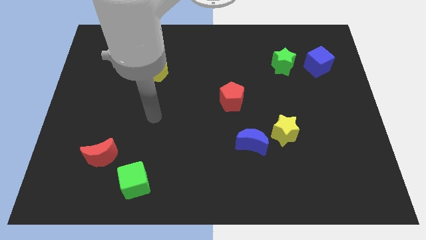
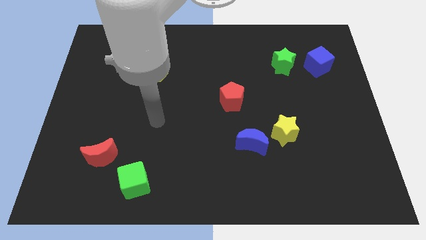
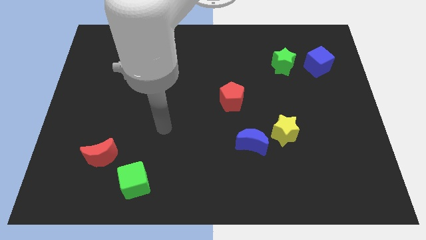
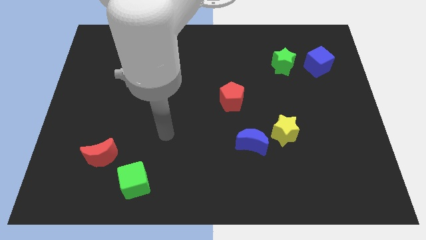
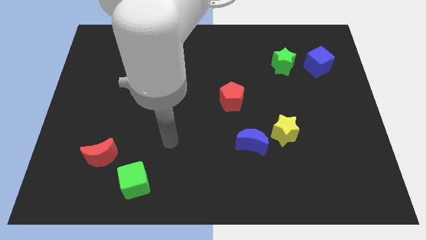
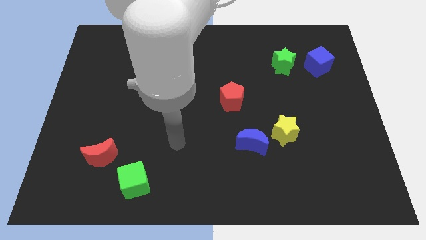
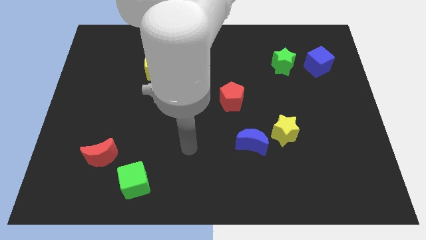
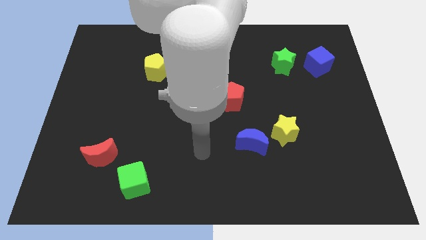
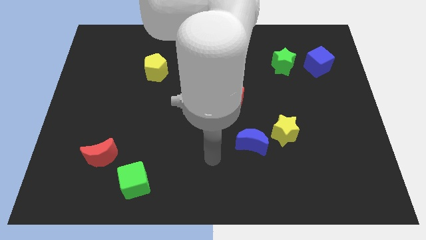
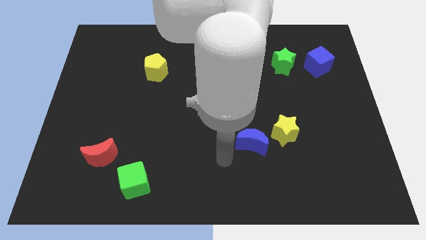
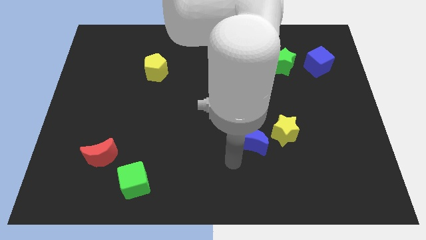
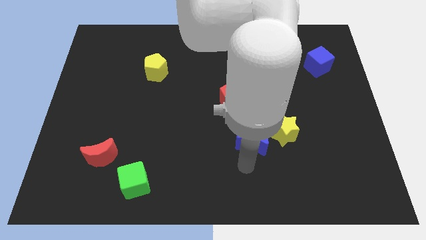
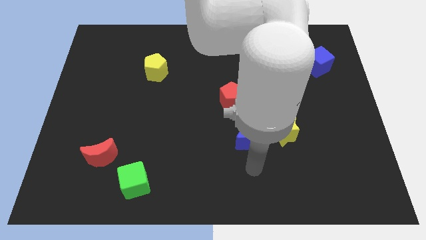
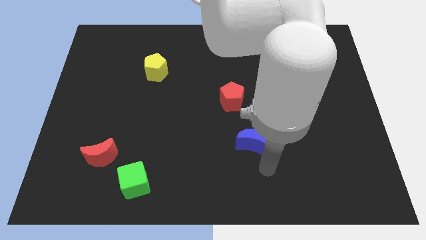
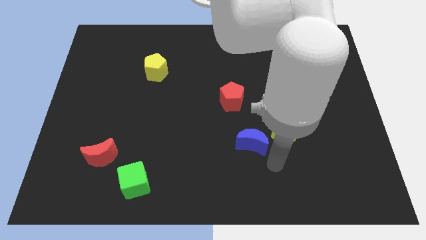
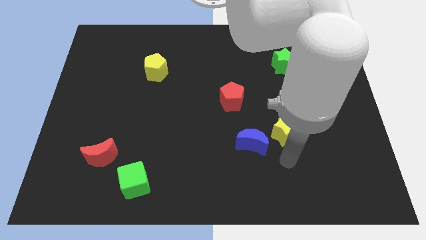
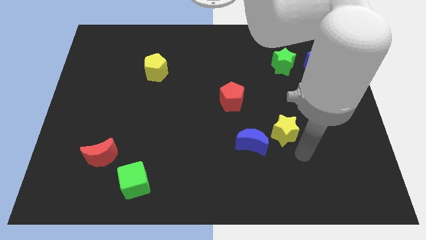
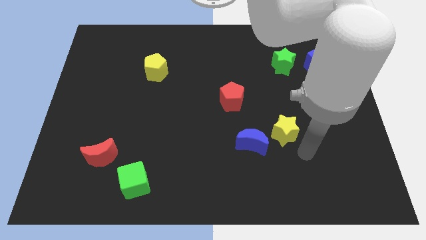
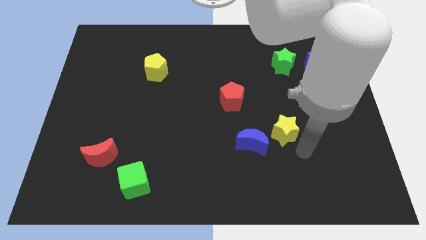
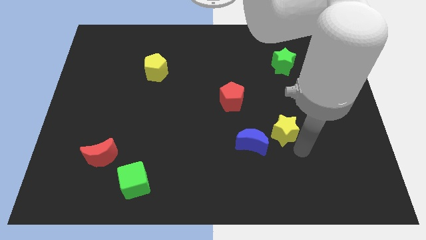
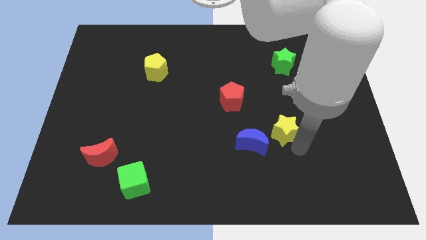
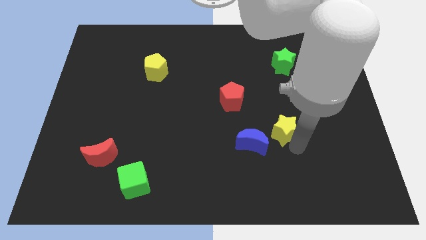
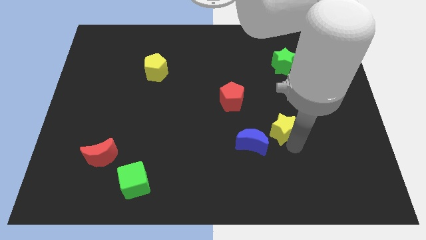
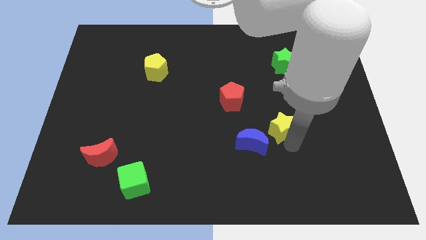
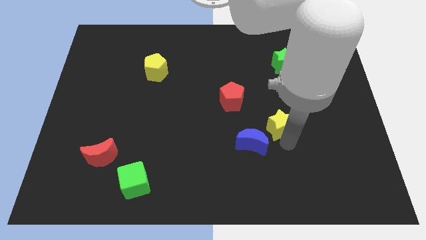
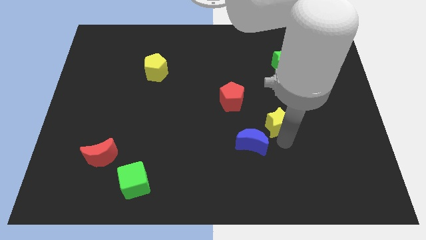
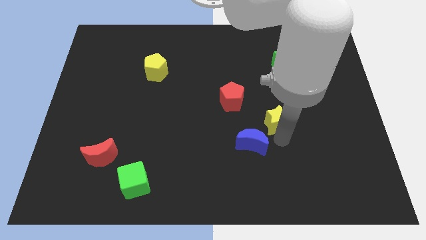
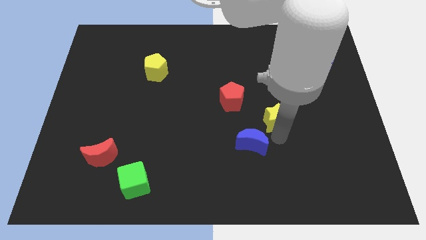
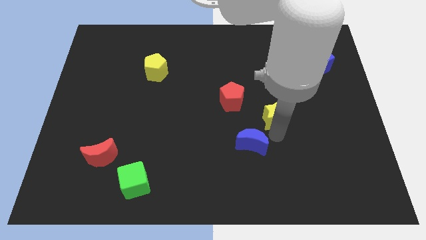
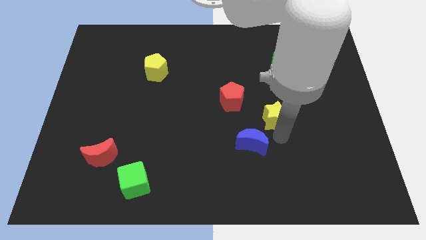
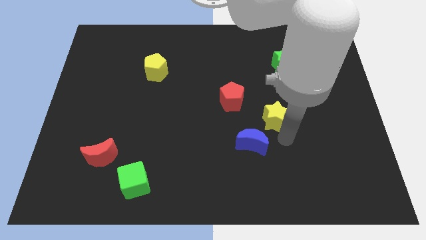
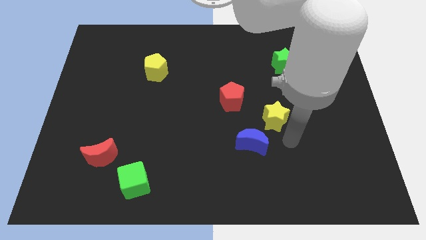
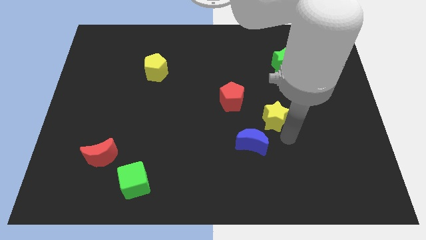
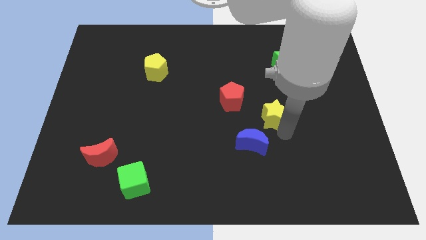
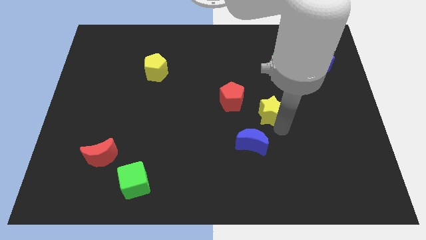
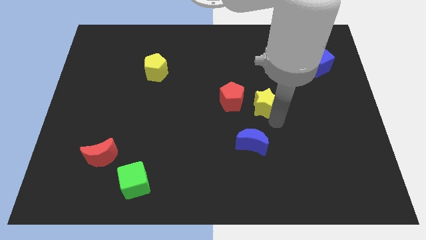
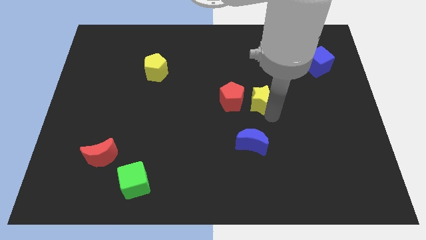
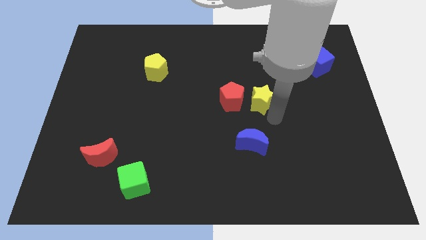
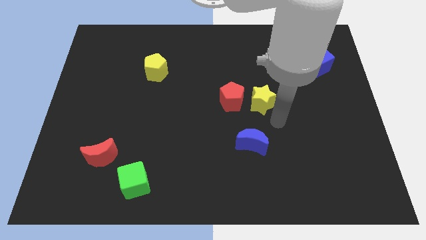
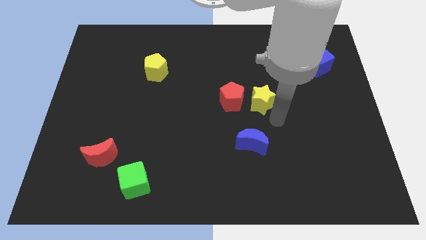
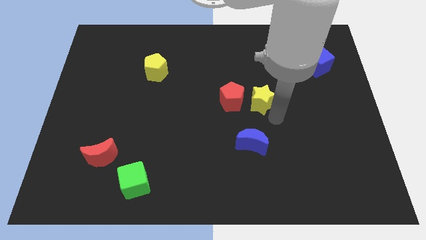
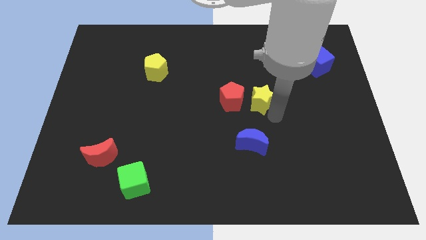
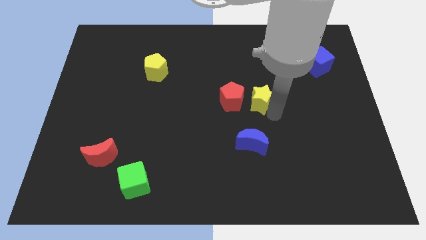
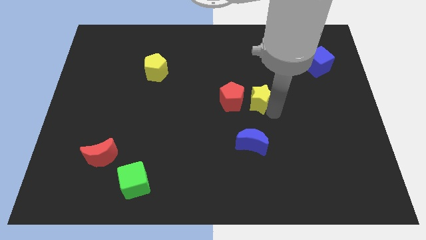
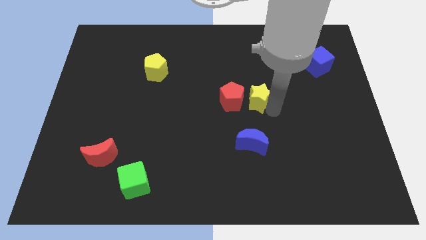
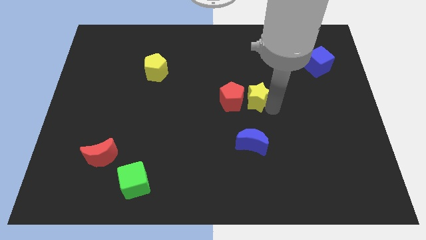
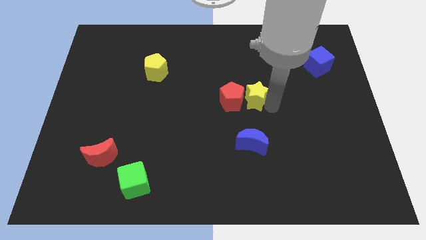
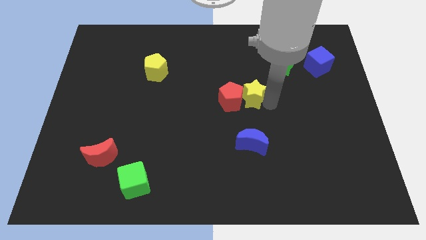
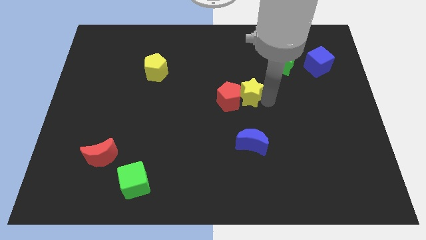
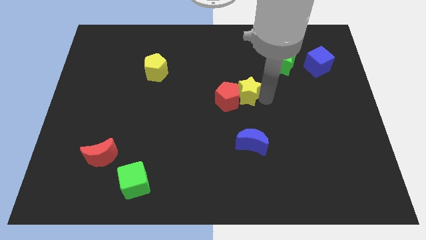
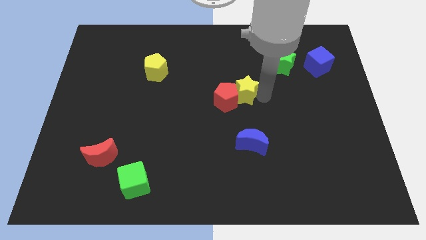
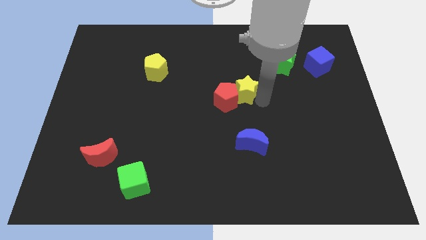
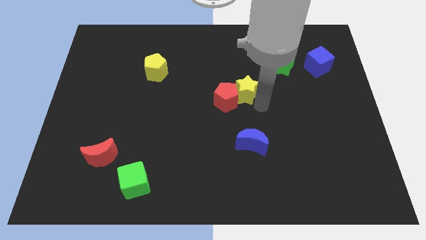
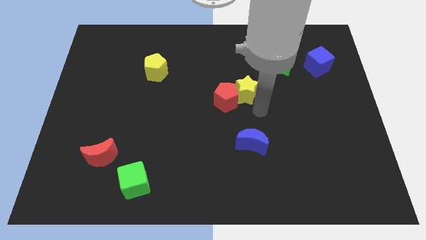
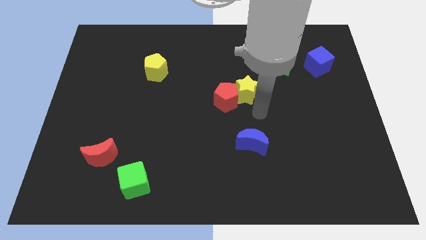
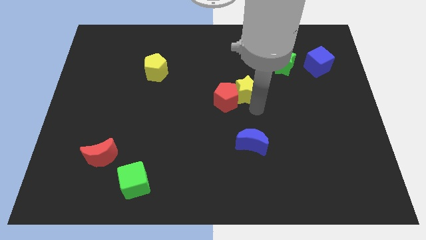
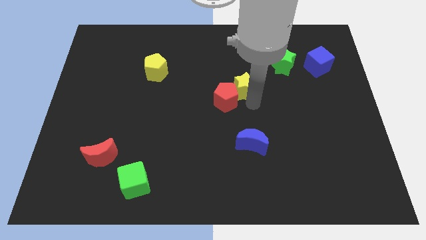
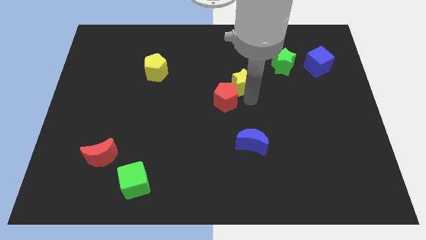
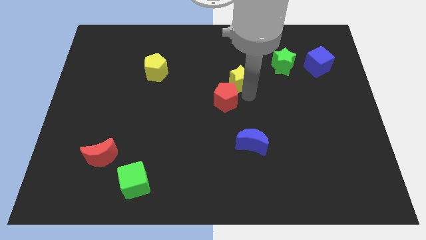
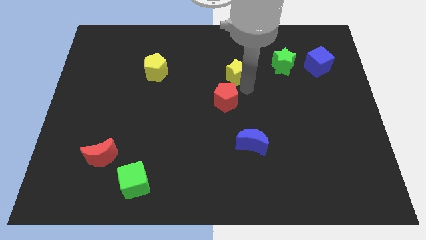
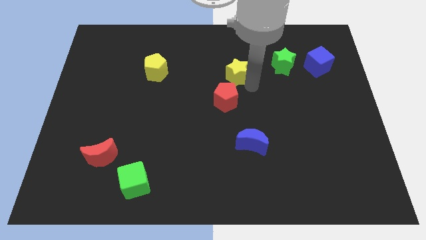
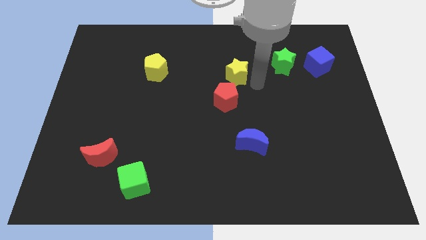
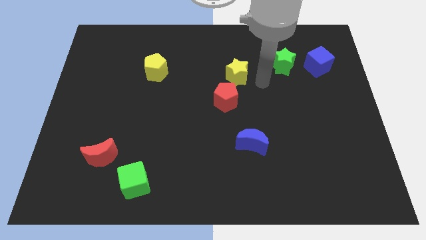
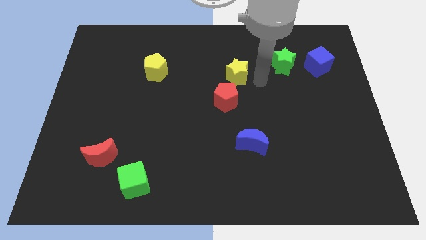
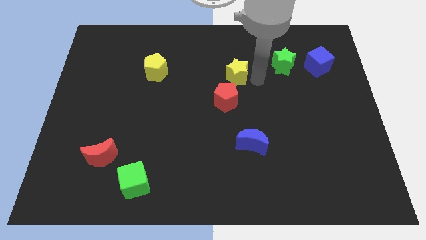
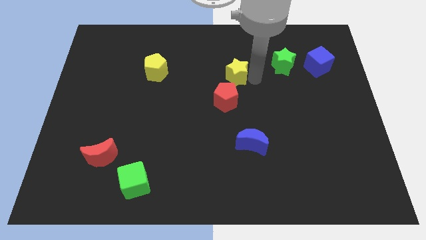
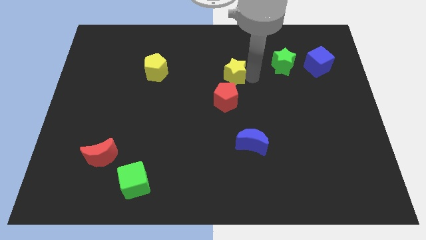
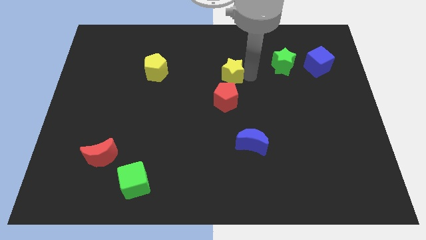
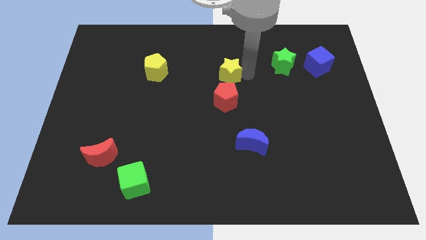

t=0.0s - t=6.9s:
move the yellow star upwards and then left

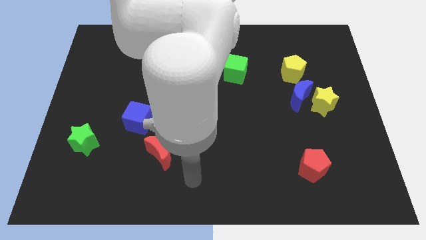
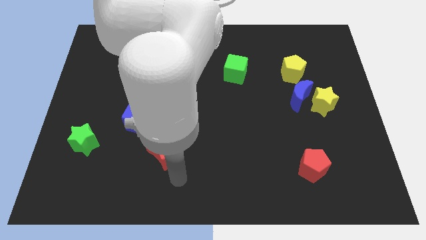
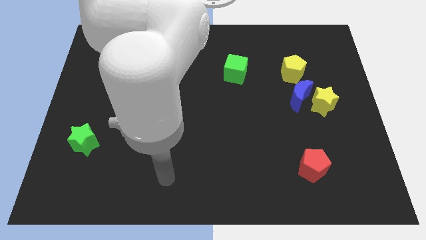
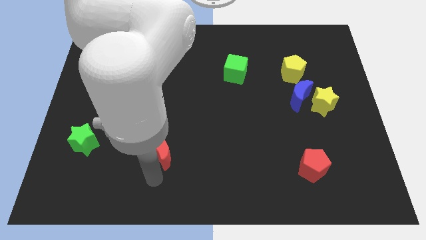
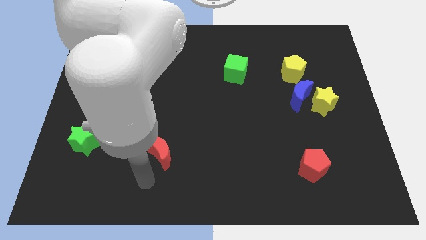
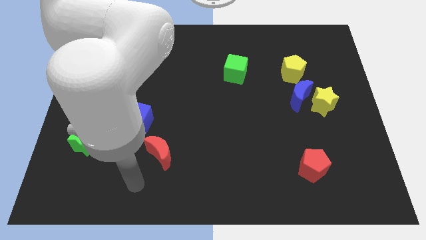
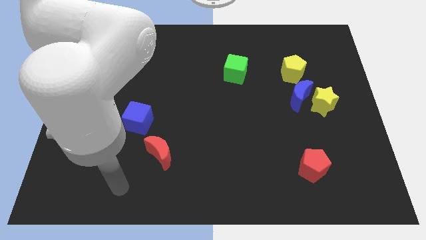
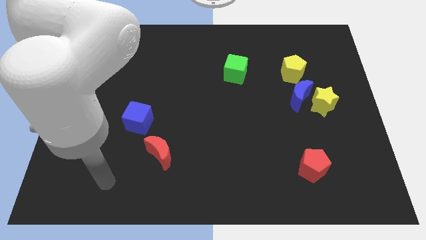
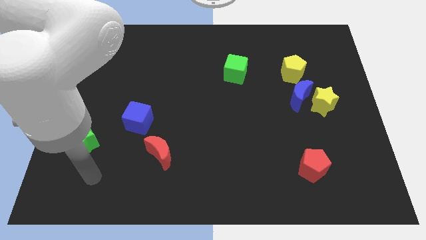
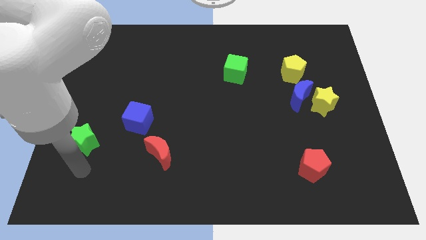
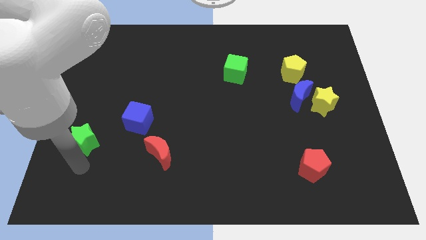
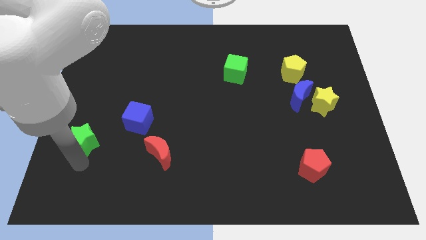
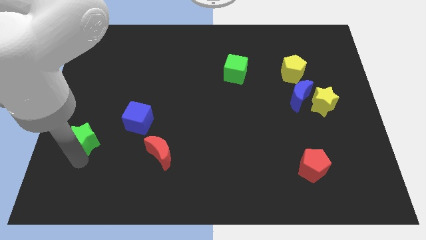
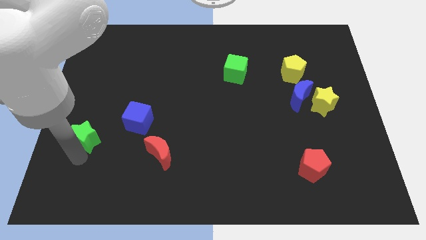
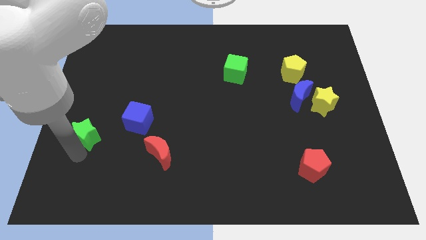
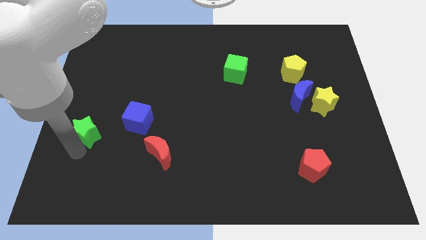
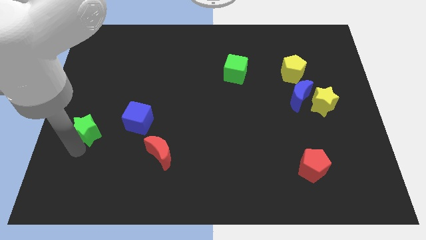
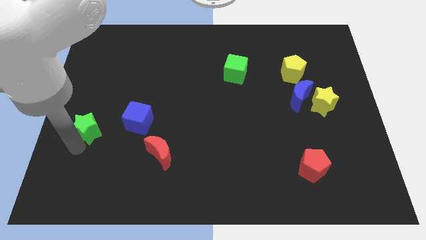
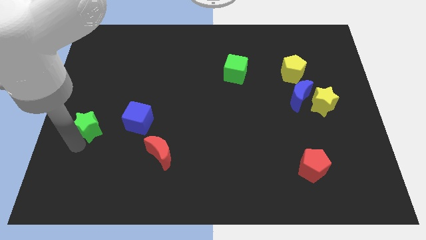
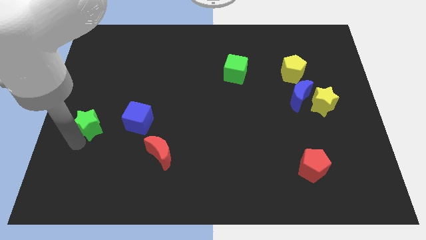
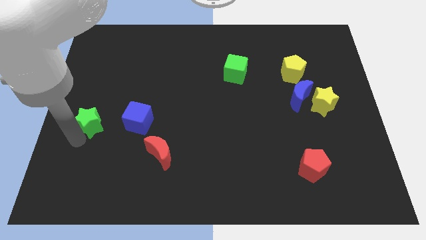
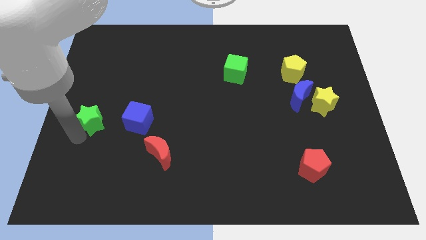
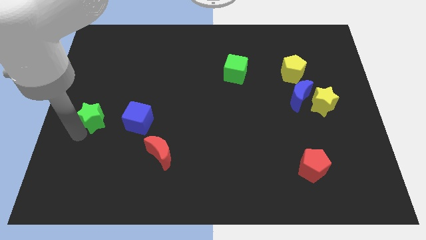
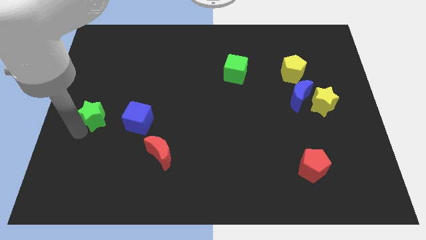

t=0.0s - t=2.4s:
push the green star a bit upwards
